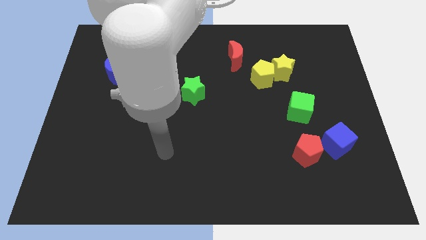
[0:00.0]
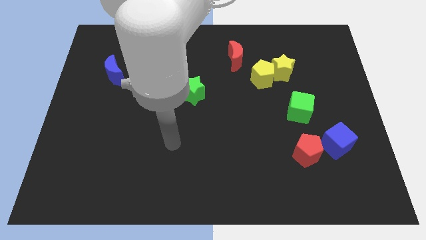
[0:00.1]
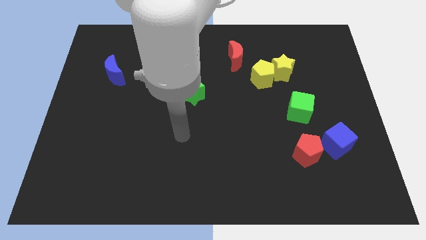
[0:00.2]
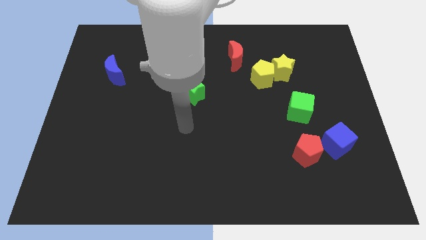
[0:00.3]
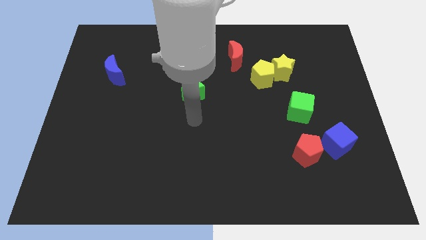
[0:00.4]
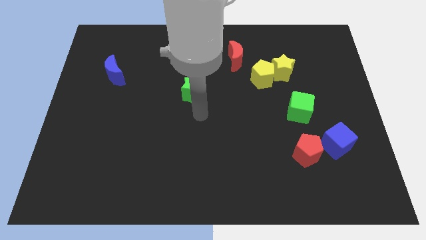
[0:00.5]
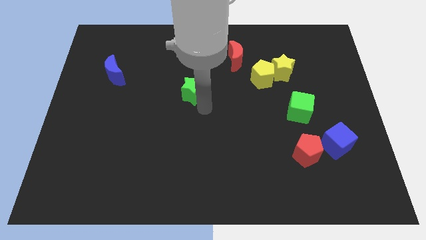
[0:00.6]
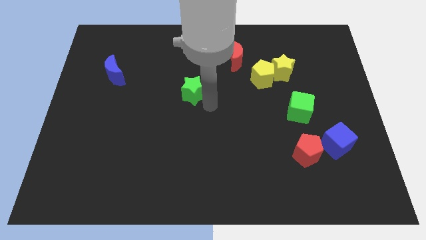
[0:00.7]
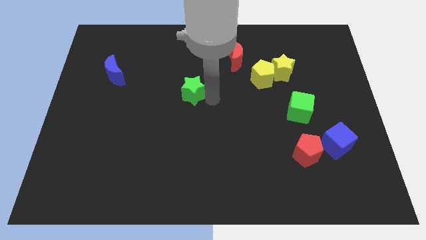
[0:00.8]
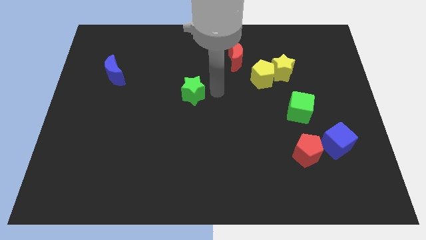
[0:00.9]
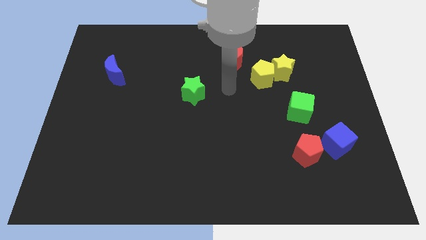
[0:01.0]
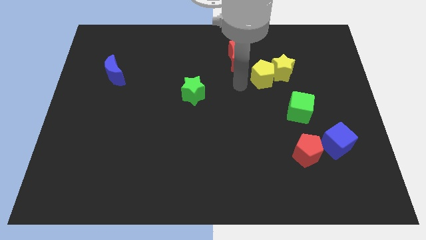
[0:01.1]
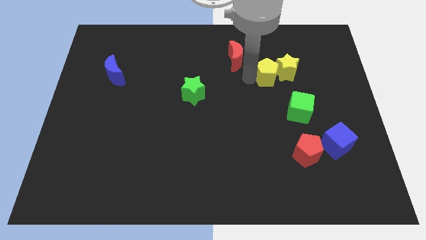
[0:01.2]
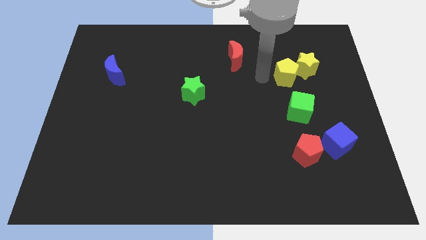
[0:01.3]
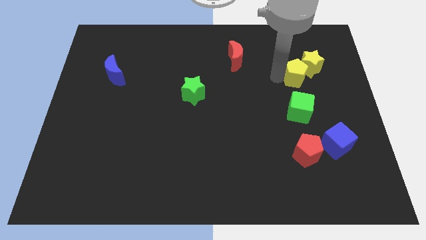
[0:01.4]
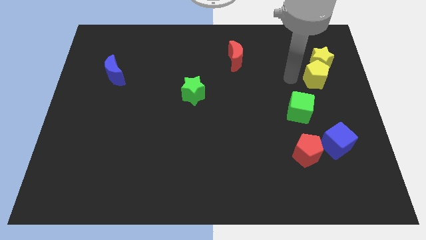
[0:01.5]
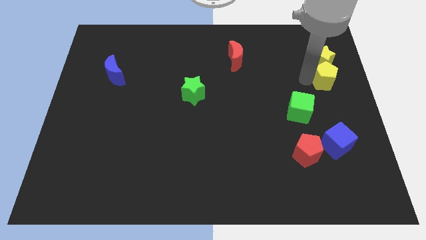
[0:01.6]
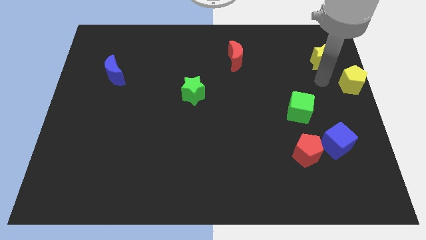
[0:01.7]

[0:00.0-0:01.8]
move the yellow star away from the yellow pentagon

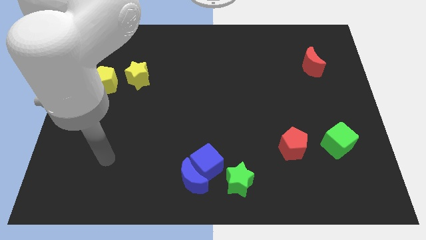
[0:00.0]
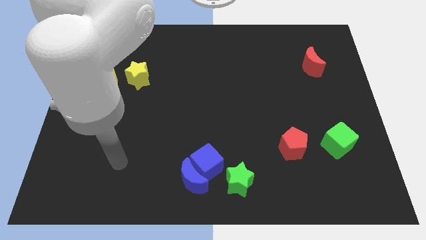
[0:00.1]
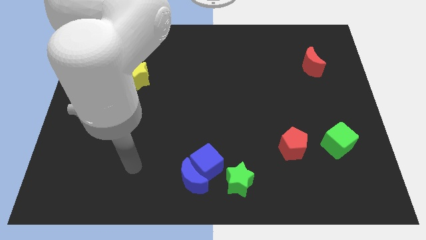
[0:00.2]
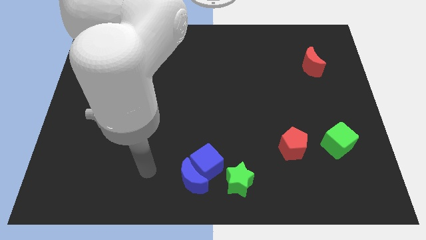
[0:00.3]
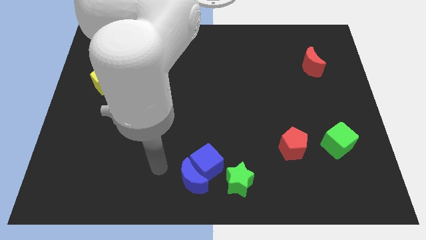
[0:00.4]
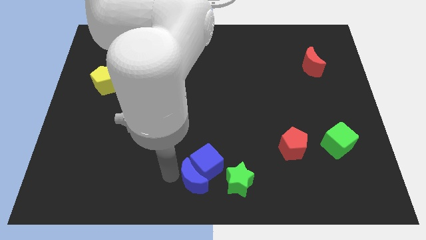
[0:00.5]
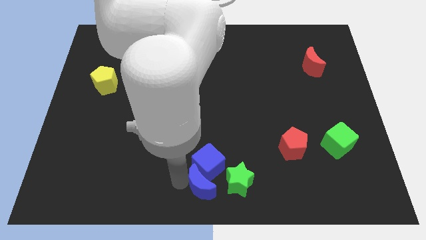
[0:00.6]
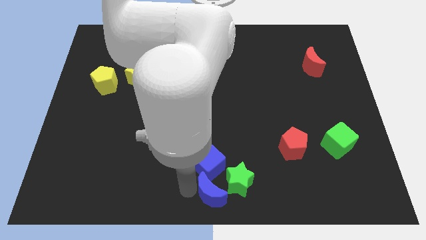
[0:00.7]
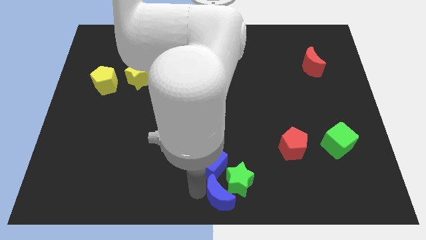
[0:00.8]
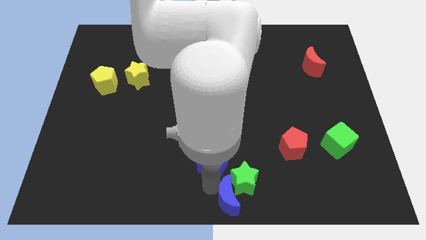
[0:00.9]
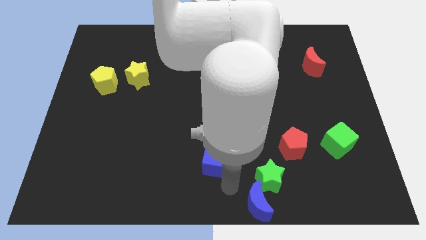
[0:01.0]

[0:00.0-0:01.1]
separate the blue cube from the blue moon and green star

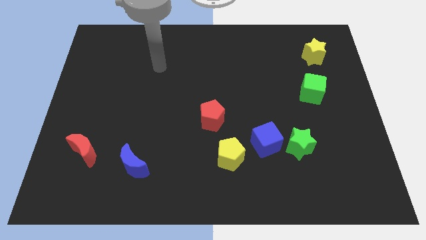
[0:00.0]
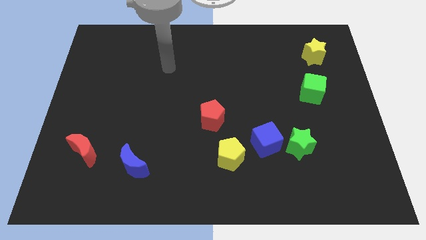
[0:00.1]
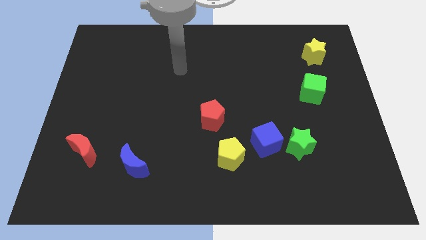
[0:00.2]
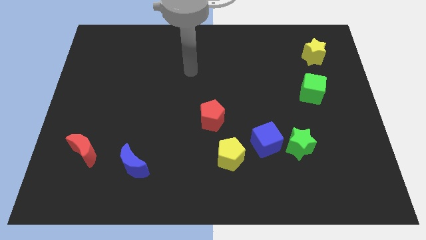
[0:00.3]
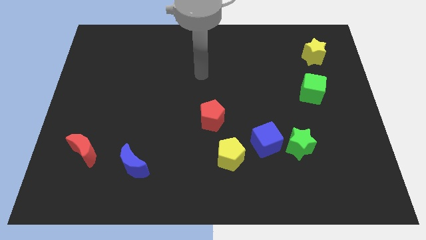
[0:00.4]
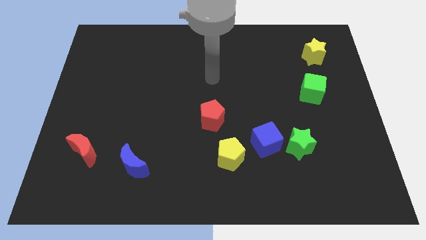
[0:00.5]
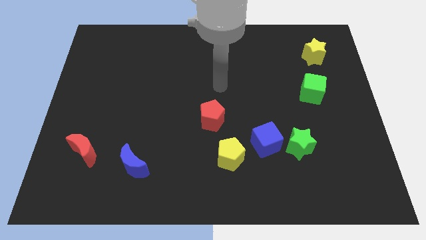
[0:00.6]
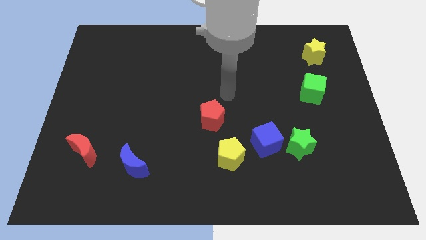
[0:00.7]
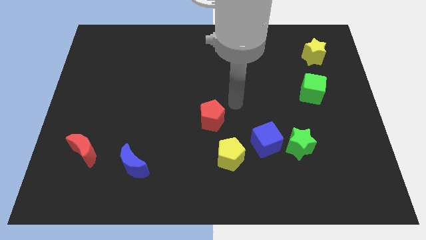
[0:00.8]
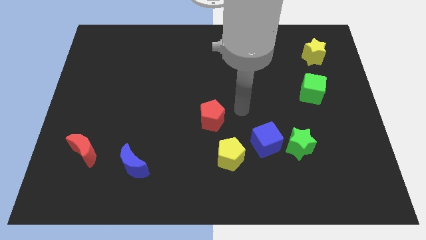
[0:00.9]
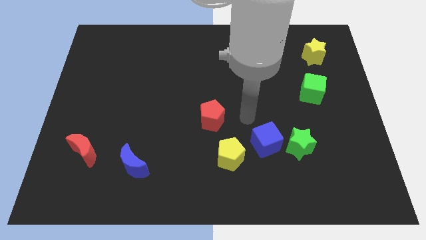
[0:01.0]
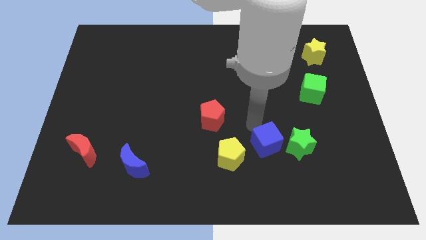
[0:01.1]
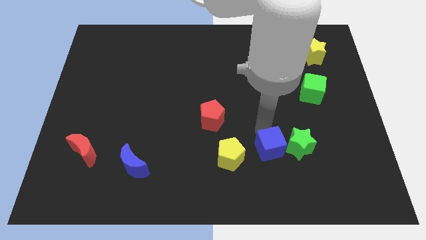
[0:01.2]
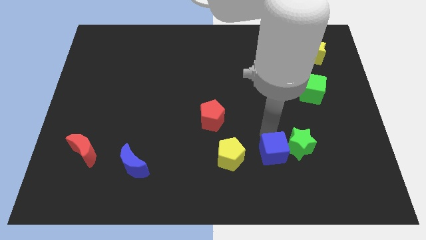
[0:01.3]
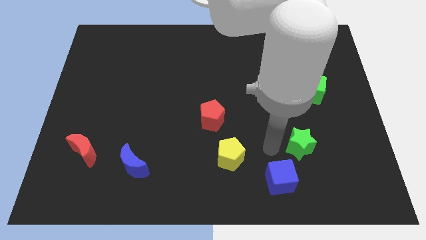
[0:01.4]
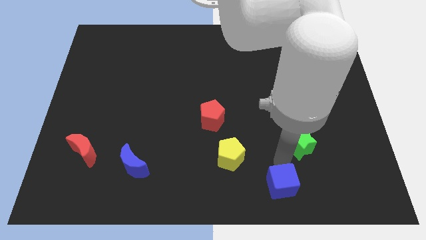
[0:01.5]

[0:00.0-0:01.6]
move the green star away from the blue cube

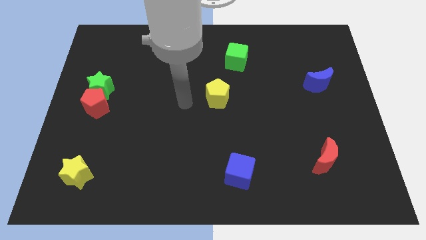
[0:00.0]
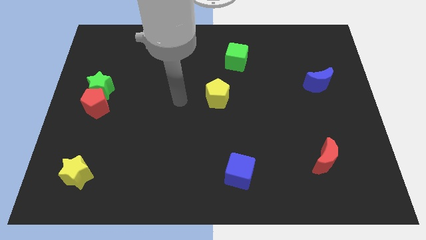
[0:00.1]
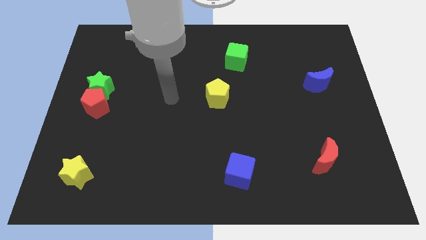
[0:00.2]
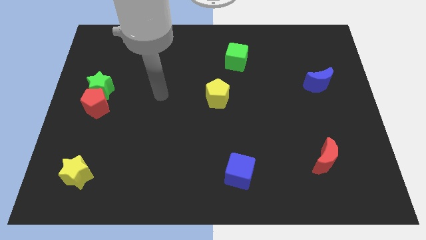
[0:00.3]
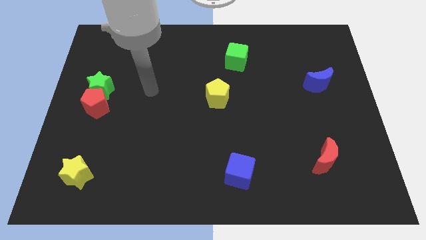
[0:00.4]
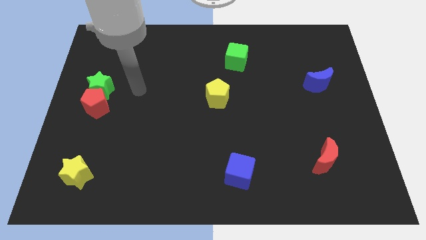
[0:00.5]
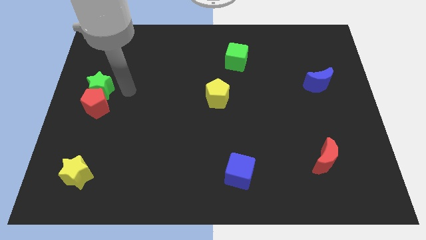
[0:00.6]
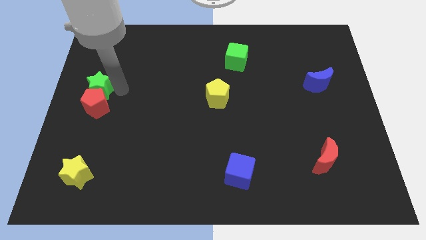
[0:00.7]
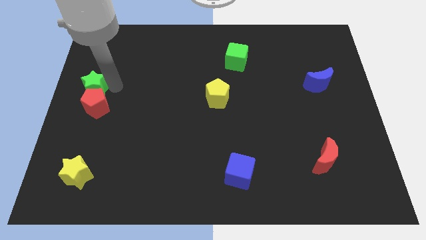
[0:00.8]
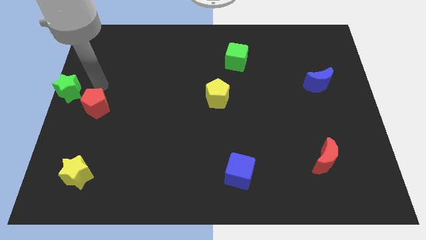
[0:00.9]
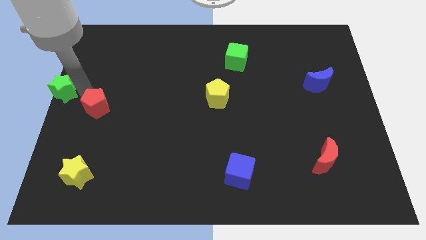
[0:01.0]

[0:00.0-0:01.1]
move the red pentagon away from the green star

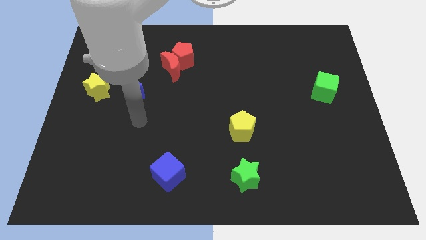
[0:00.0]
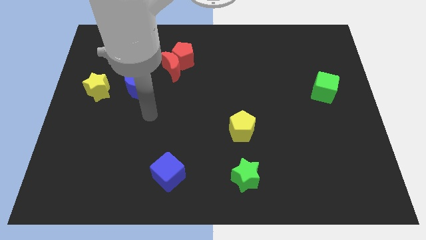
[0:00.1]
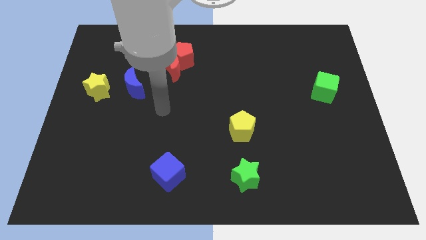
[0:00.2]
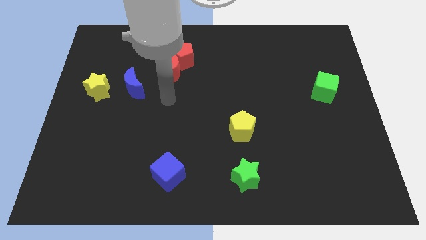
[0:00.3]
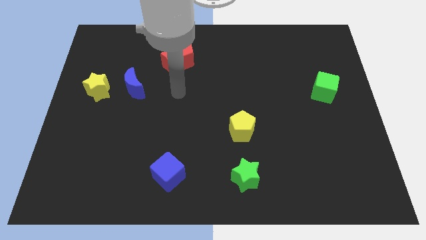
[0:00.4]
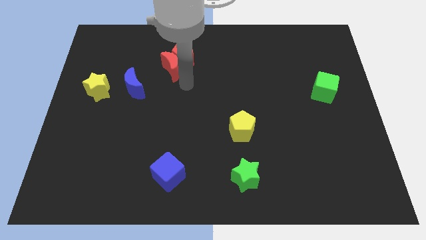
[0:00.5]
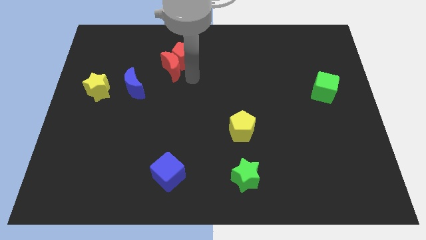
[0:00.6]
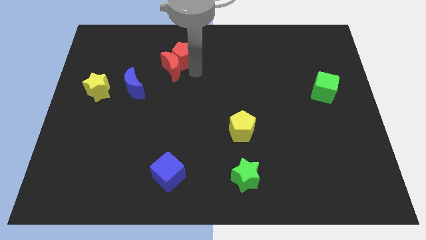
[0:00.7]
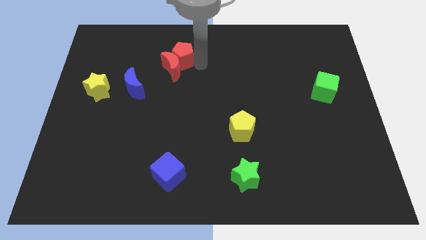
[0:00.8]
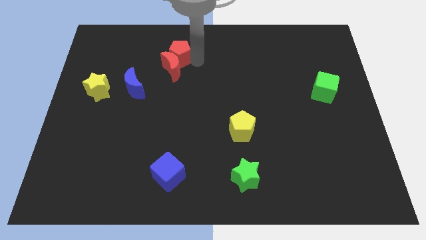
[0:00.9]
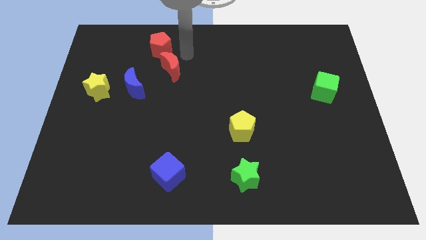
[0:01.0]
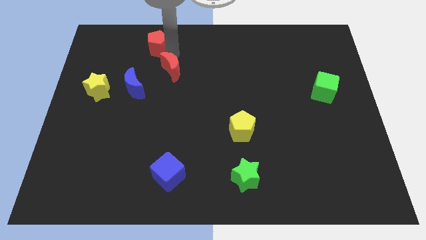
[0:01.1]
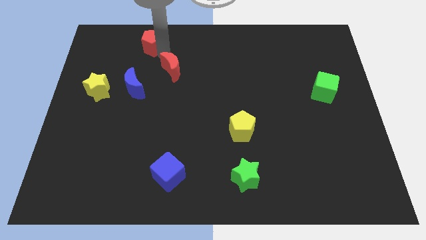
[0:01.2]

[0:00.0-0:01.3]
pull the red moon apart from the red pentagon

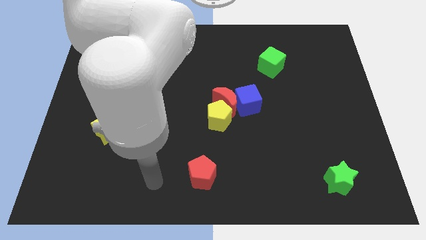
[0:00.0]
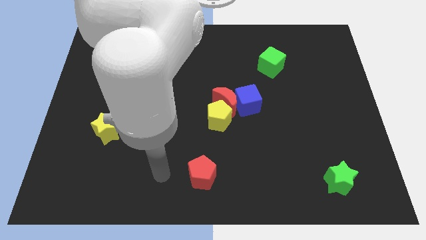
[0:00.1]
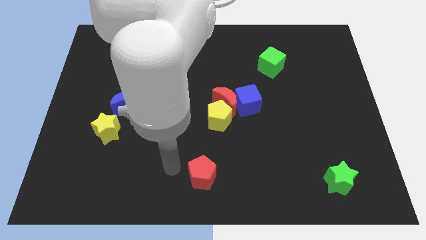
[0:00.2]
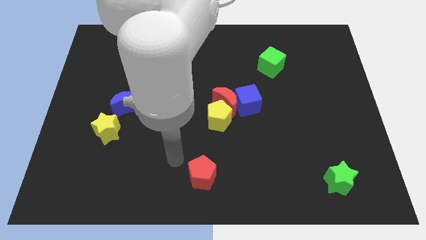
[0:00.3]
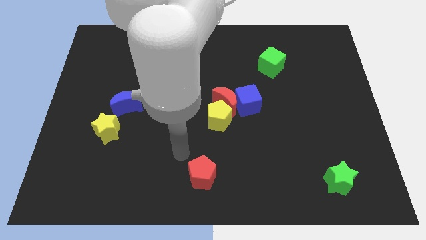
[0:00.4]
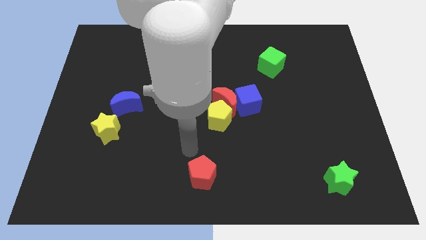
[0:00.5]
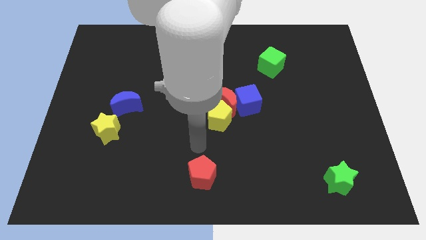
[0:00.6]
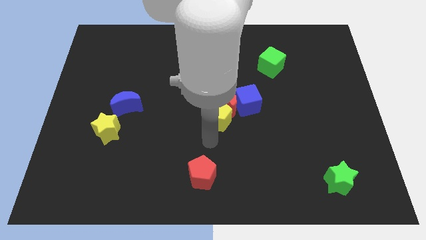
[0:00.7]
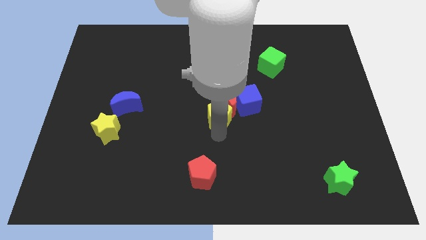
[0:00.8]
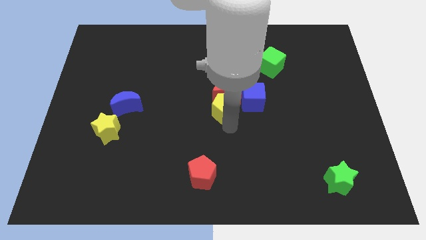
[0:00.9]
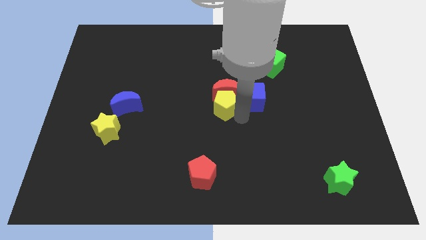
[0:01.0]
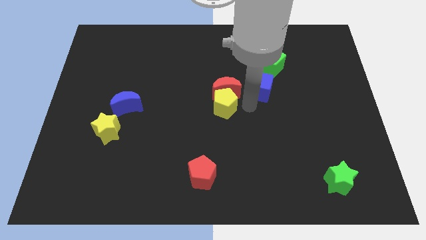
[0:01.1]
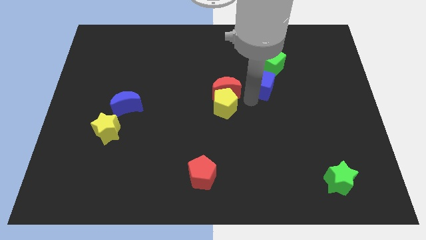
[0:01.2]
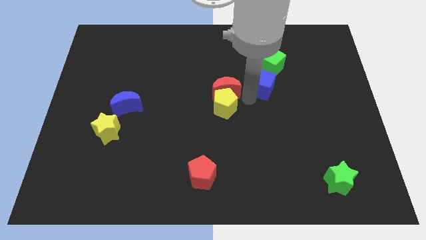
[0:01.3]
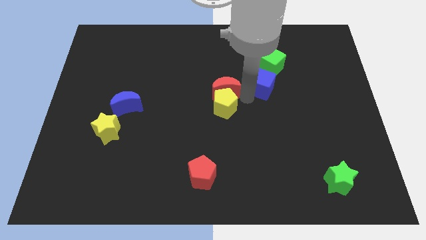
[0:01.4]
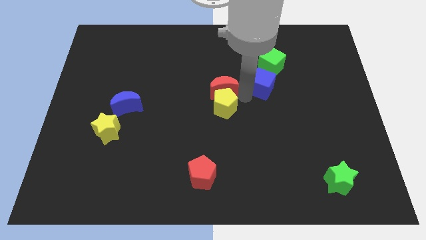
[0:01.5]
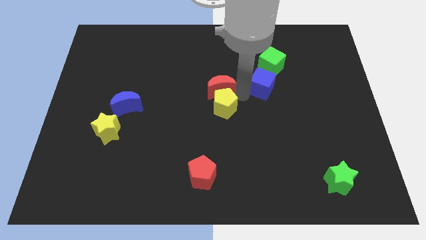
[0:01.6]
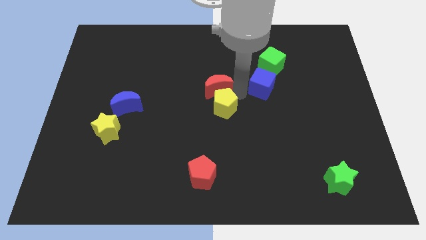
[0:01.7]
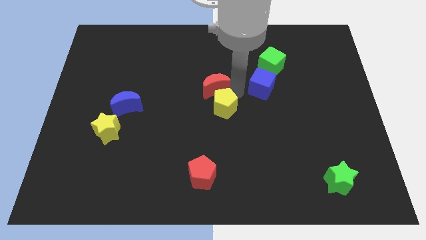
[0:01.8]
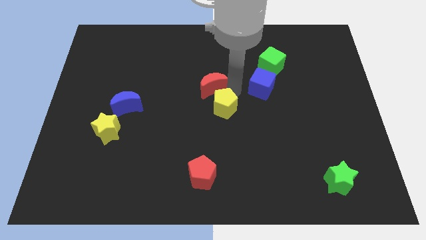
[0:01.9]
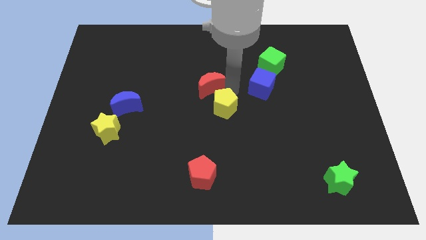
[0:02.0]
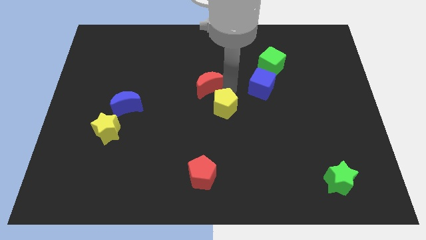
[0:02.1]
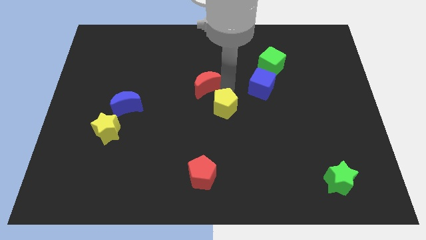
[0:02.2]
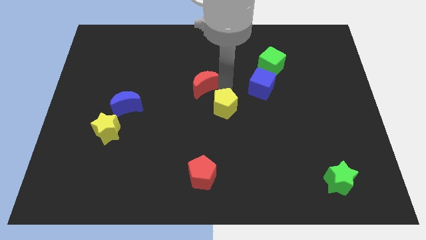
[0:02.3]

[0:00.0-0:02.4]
pull the red moon apart from the blue cube and yellow pentagon
